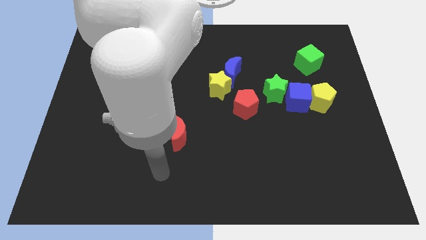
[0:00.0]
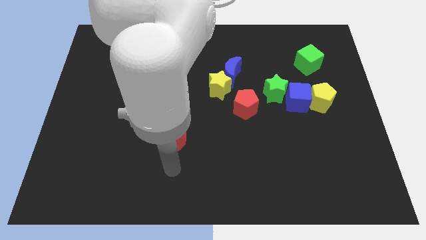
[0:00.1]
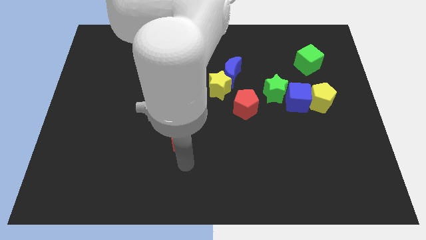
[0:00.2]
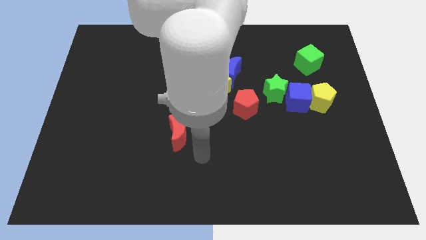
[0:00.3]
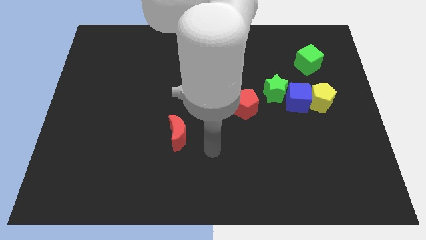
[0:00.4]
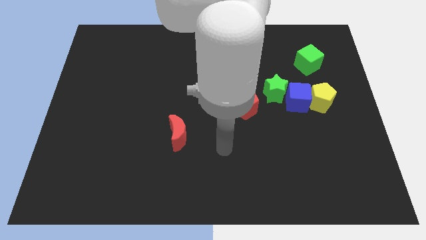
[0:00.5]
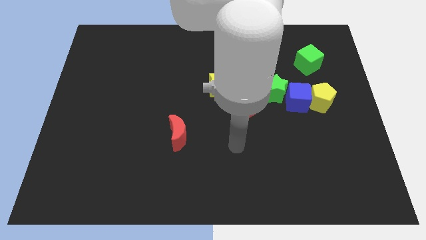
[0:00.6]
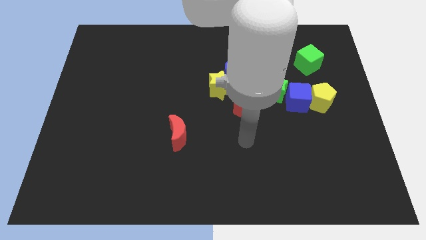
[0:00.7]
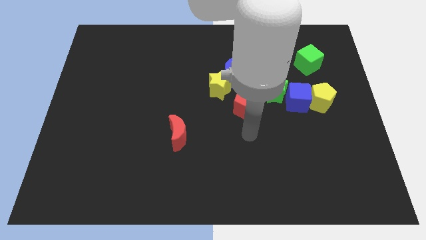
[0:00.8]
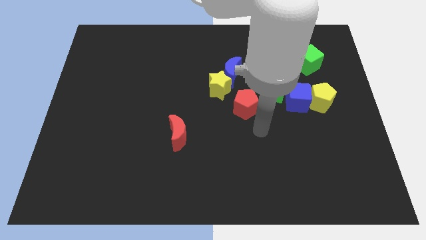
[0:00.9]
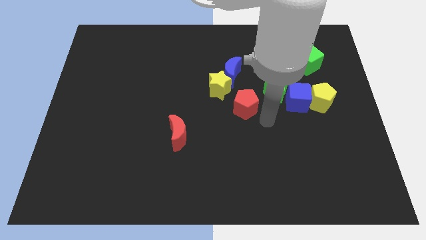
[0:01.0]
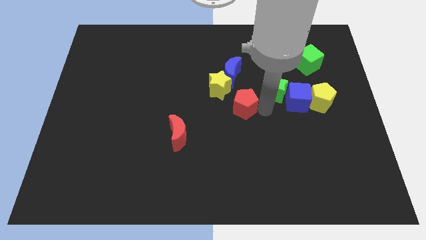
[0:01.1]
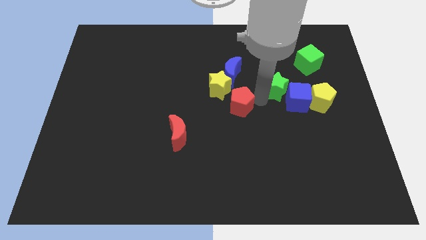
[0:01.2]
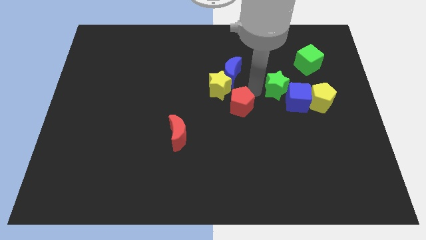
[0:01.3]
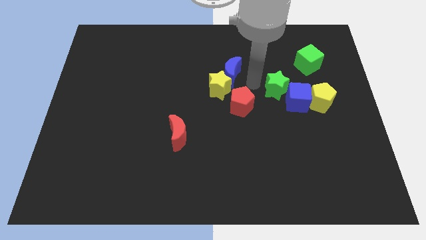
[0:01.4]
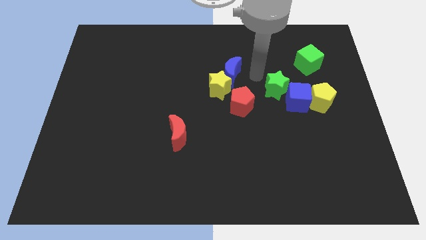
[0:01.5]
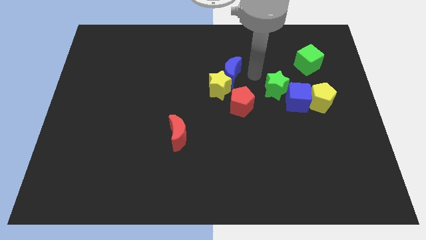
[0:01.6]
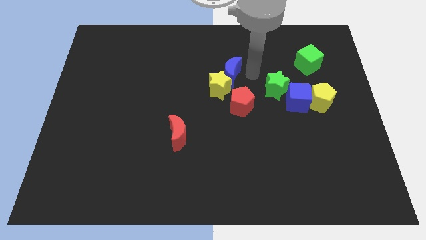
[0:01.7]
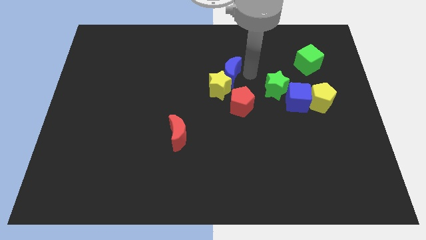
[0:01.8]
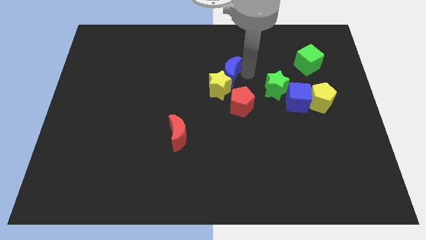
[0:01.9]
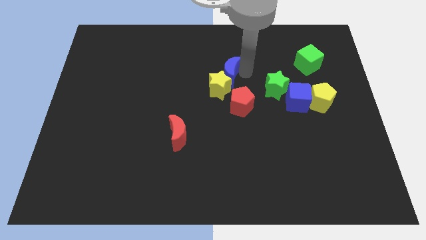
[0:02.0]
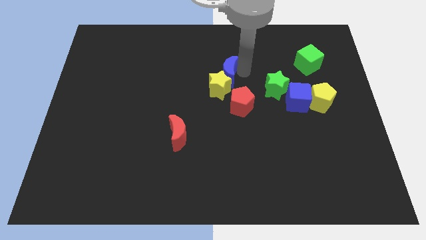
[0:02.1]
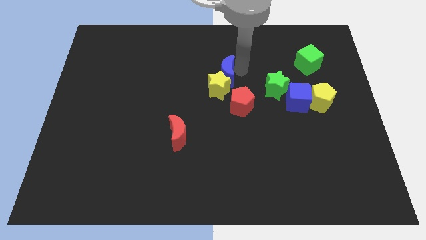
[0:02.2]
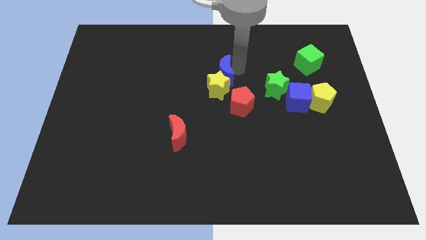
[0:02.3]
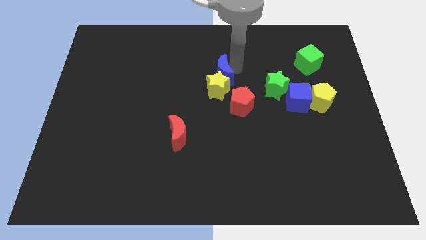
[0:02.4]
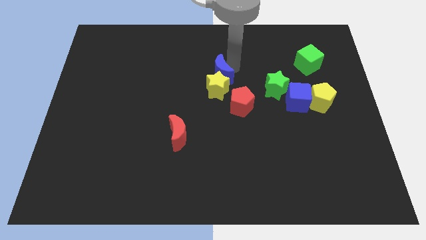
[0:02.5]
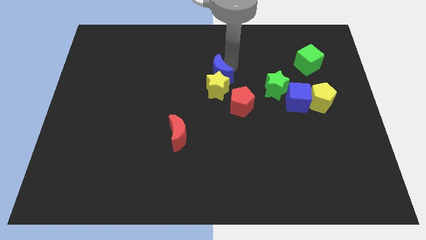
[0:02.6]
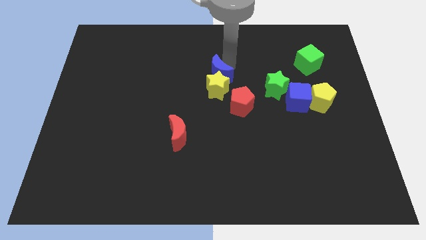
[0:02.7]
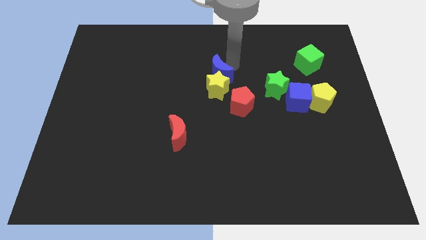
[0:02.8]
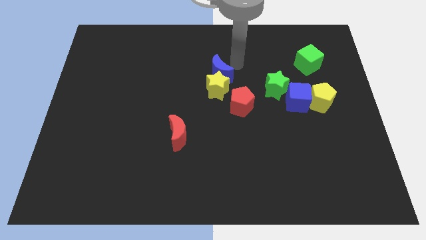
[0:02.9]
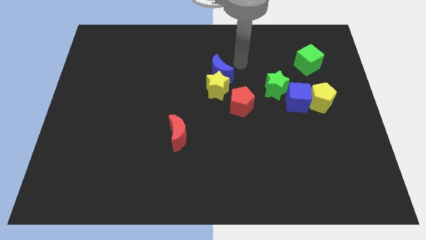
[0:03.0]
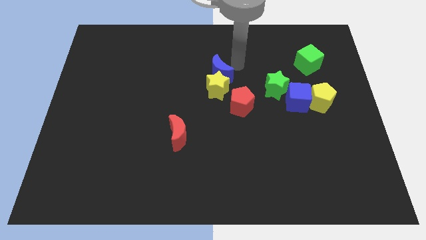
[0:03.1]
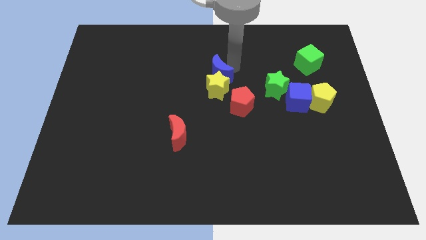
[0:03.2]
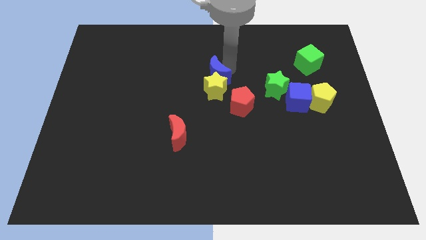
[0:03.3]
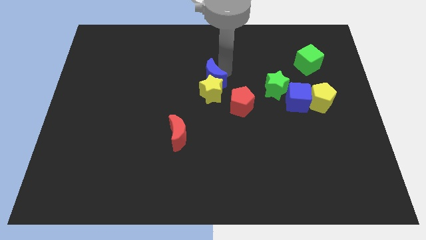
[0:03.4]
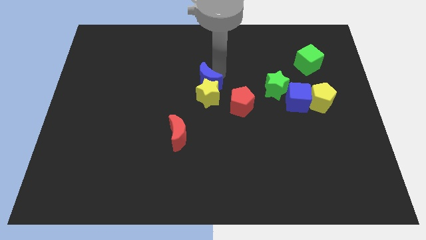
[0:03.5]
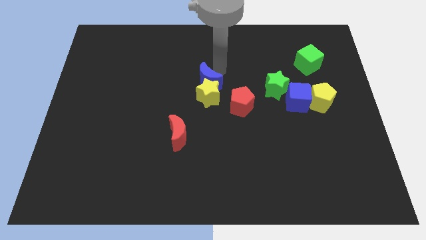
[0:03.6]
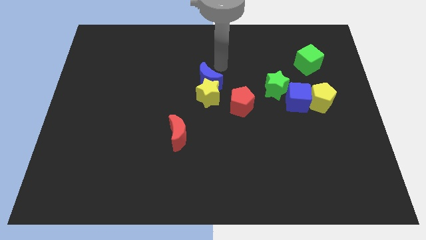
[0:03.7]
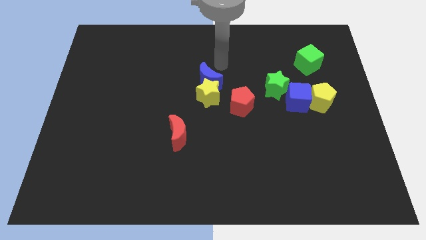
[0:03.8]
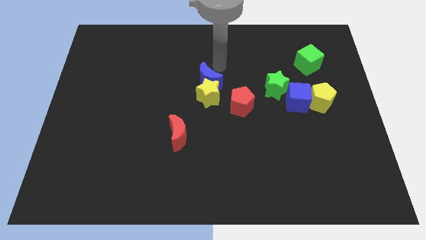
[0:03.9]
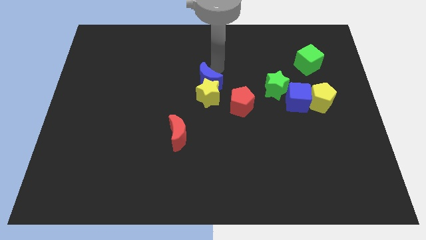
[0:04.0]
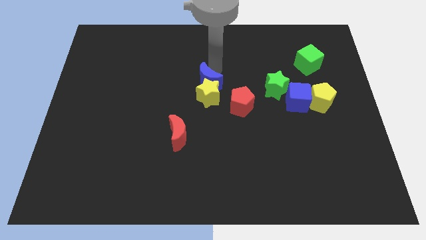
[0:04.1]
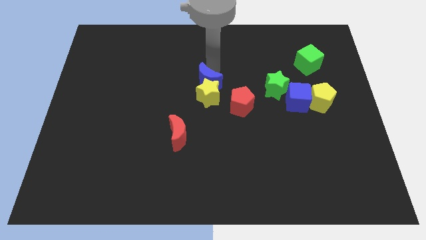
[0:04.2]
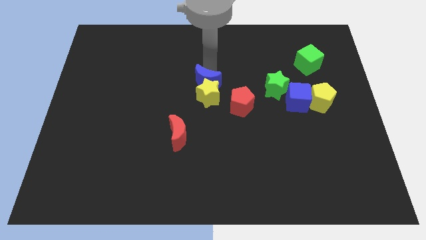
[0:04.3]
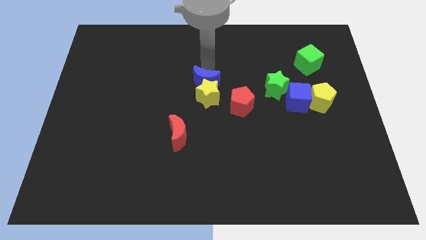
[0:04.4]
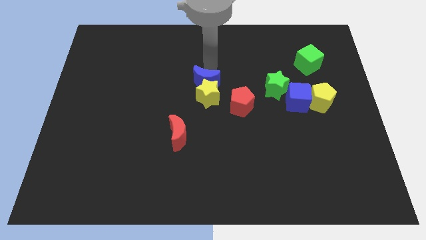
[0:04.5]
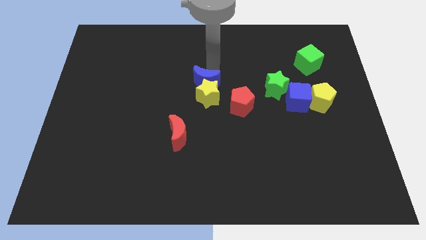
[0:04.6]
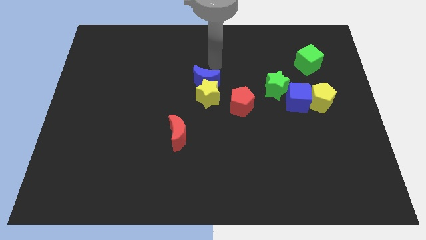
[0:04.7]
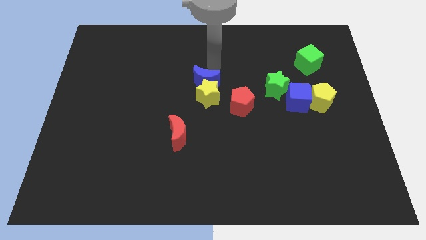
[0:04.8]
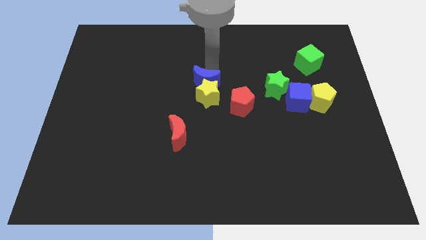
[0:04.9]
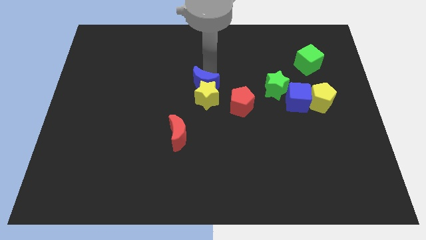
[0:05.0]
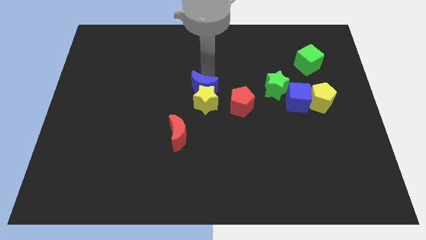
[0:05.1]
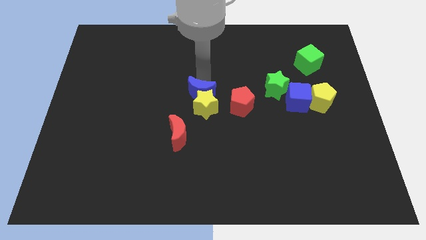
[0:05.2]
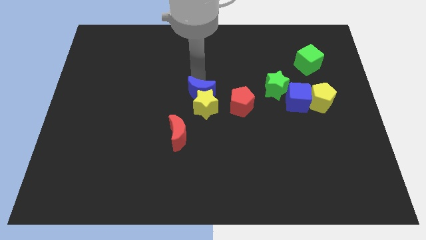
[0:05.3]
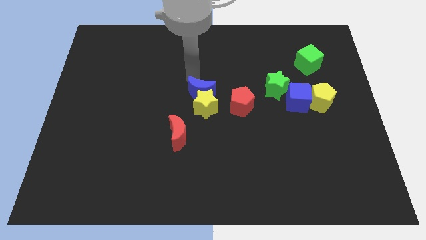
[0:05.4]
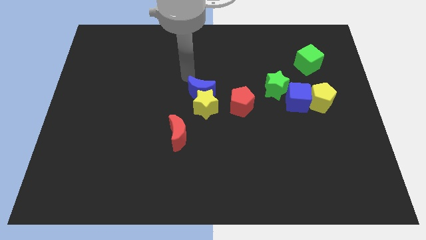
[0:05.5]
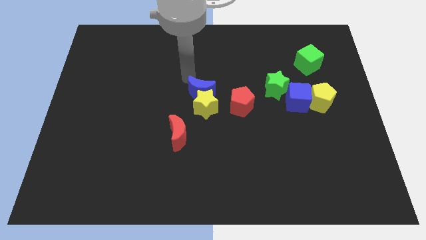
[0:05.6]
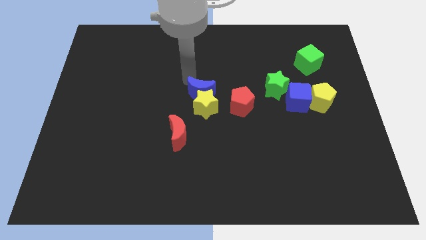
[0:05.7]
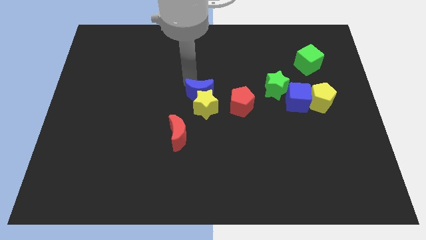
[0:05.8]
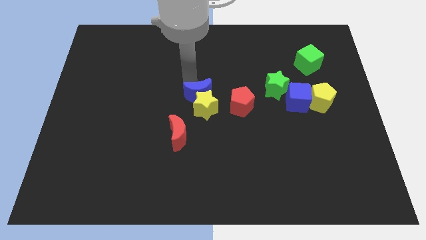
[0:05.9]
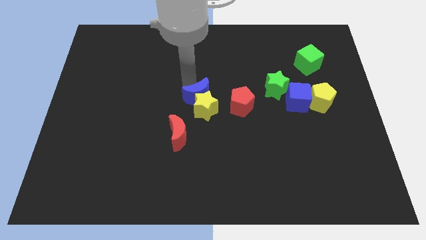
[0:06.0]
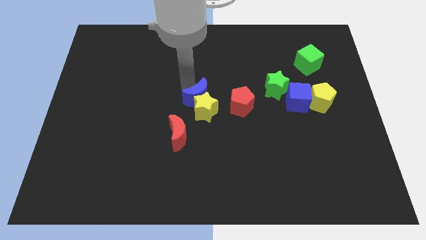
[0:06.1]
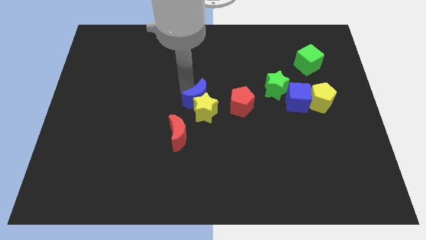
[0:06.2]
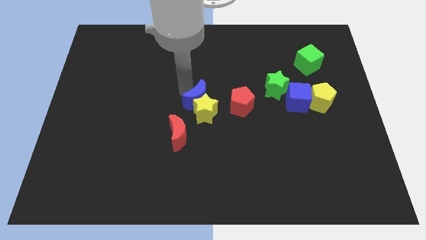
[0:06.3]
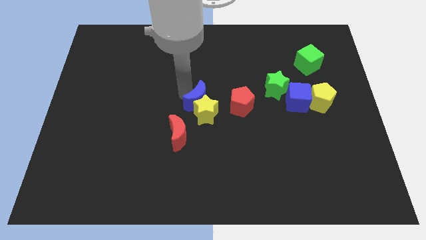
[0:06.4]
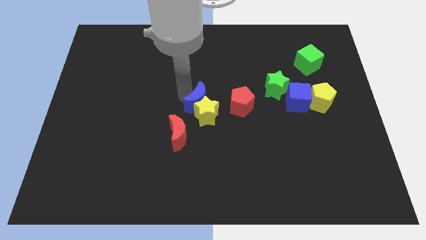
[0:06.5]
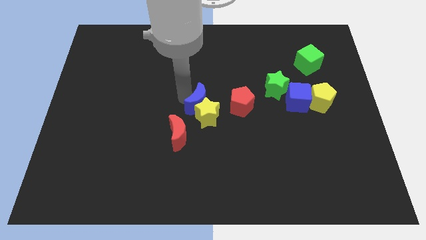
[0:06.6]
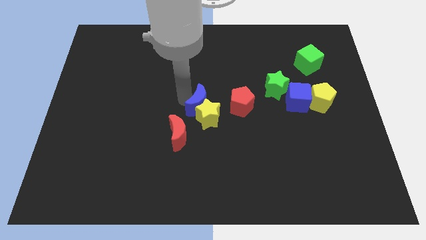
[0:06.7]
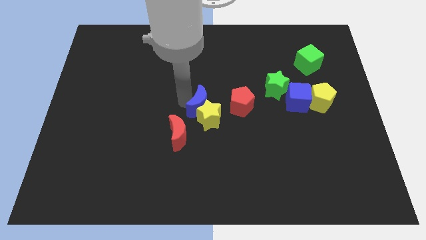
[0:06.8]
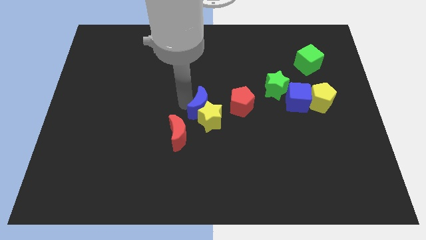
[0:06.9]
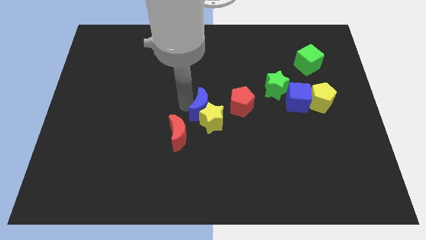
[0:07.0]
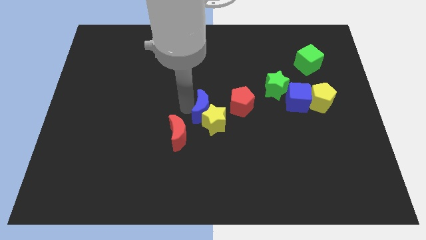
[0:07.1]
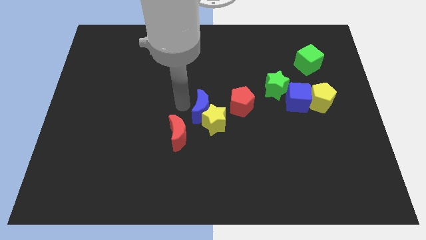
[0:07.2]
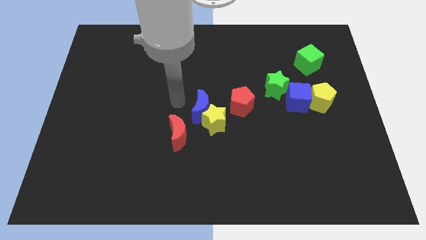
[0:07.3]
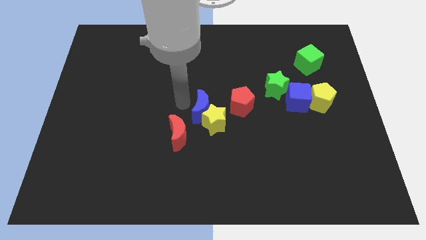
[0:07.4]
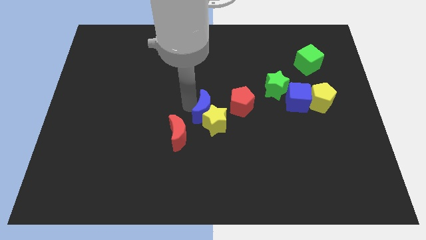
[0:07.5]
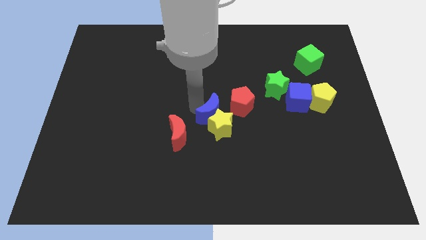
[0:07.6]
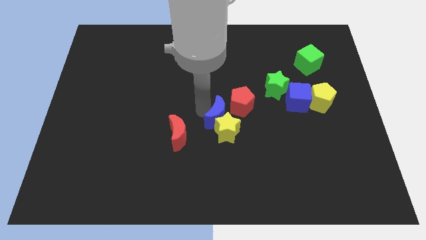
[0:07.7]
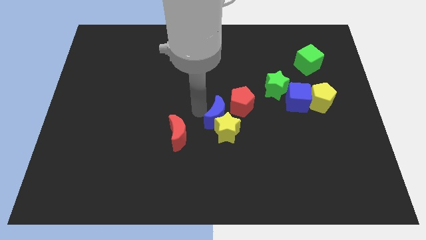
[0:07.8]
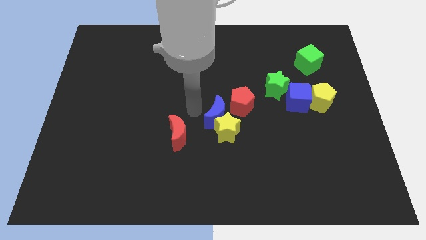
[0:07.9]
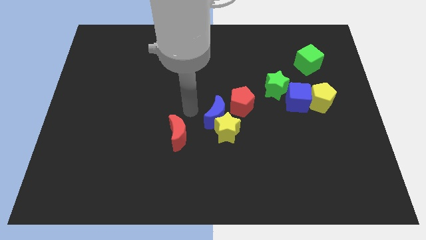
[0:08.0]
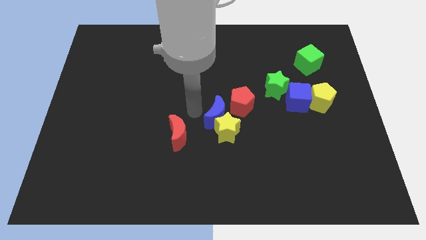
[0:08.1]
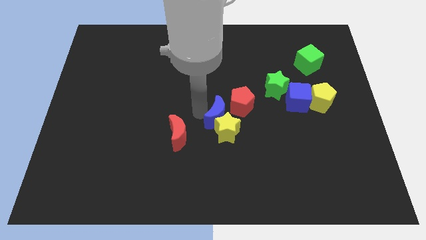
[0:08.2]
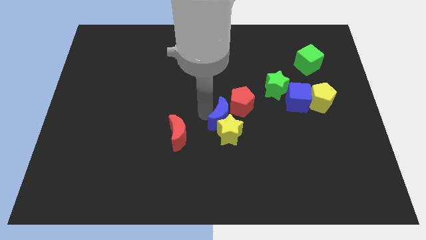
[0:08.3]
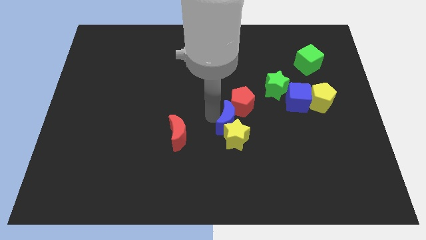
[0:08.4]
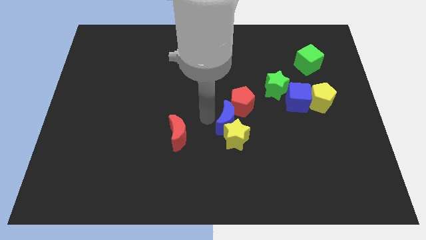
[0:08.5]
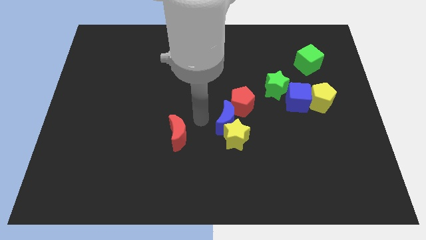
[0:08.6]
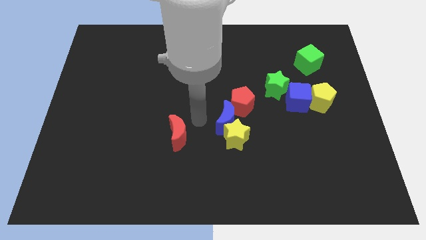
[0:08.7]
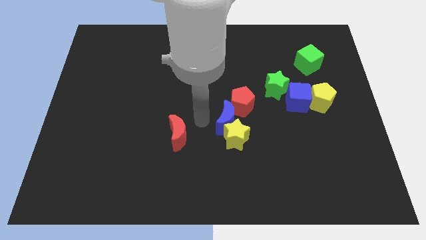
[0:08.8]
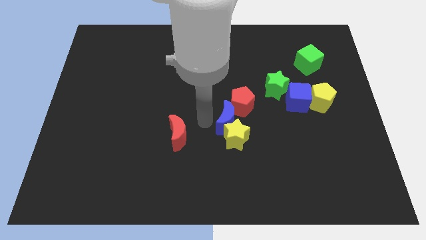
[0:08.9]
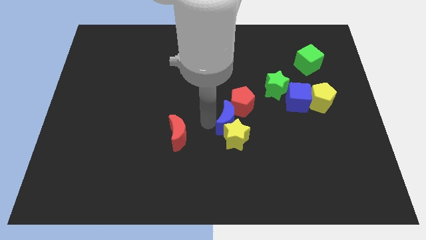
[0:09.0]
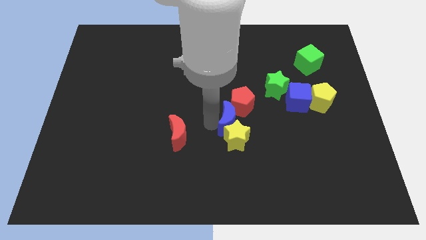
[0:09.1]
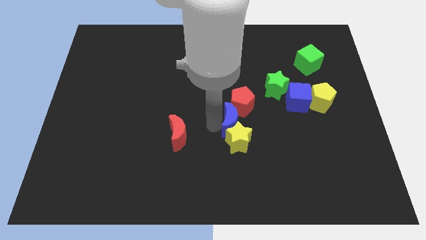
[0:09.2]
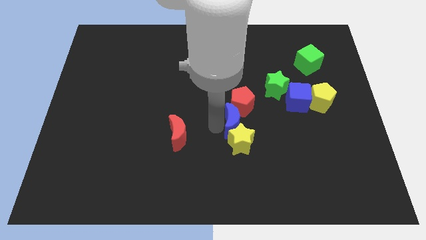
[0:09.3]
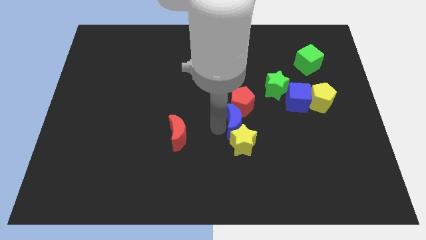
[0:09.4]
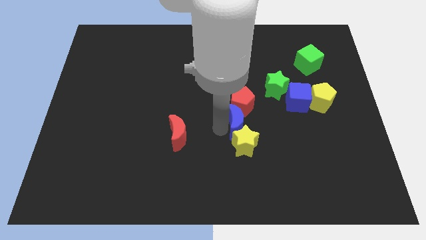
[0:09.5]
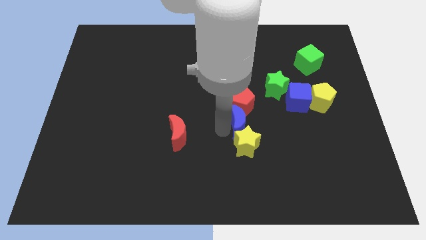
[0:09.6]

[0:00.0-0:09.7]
slightly move the blue moon down and to the right
